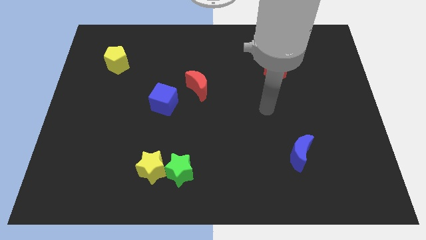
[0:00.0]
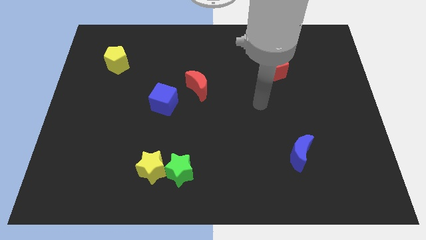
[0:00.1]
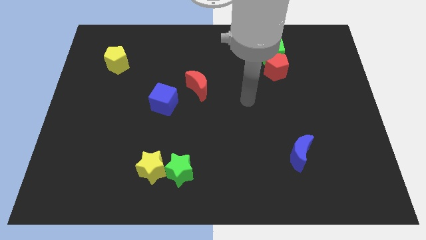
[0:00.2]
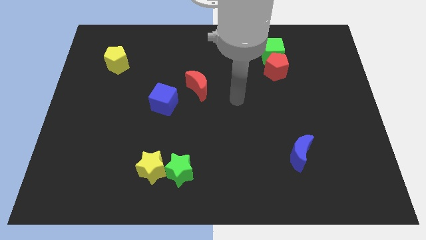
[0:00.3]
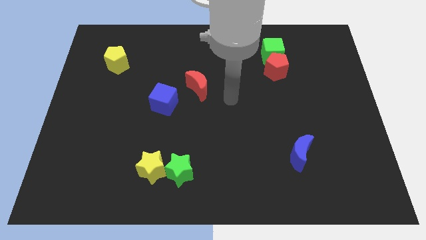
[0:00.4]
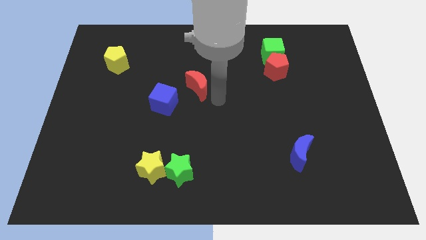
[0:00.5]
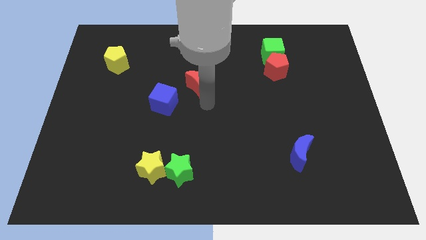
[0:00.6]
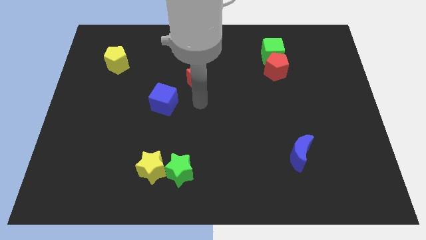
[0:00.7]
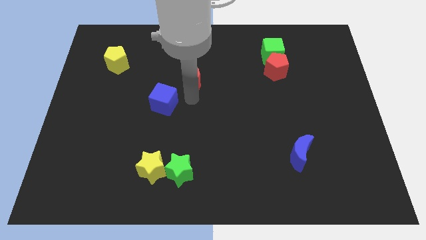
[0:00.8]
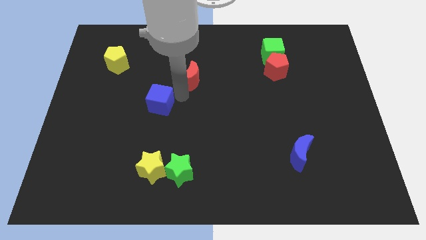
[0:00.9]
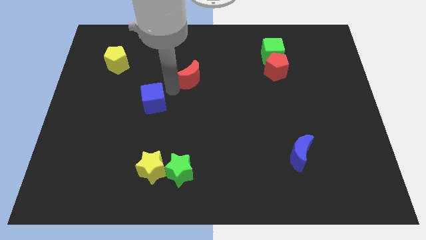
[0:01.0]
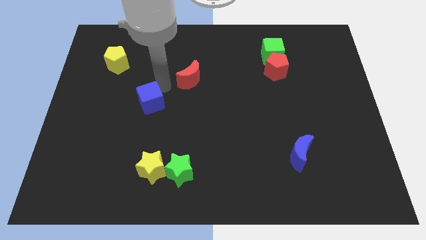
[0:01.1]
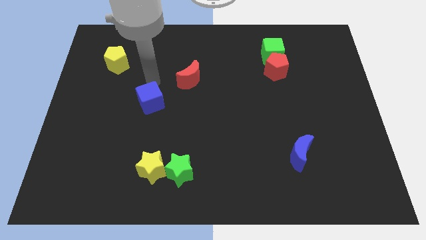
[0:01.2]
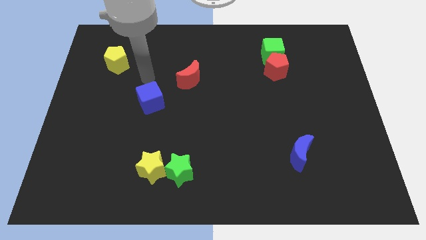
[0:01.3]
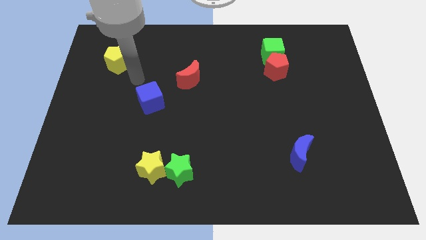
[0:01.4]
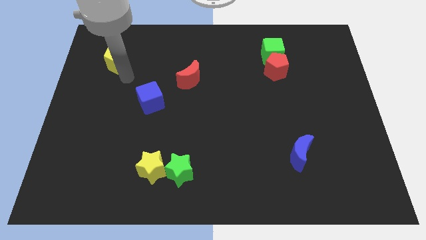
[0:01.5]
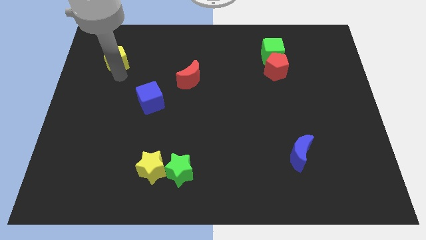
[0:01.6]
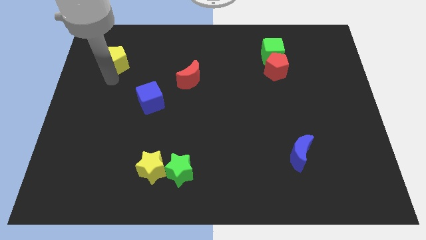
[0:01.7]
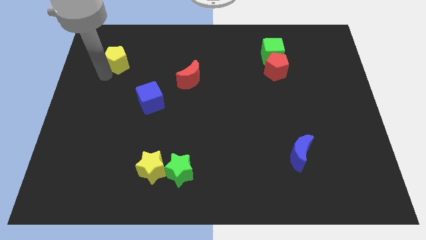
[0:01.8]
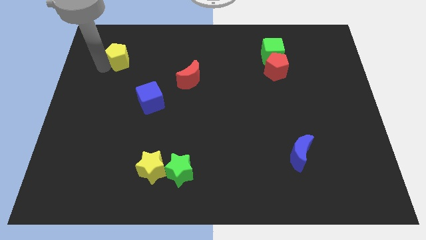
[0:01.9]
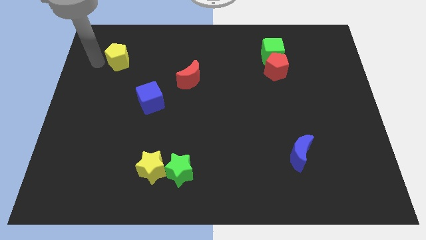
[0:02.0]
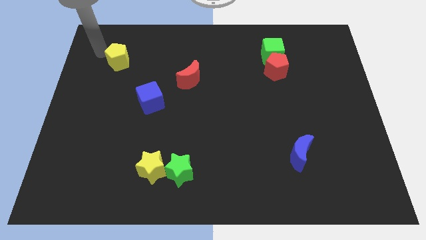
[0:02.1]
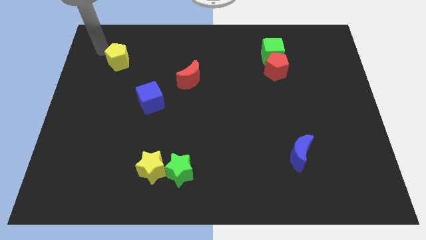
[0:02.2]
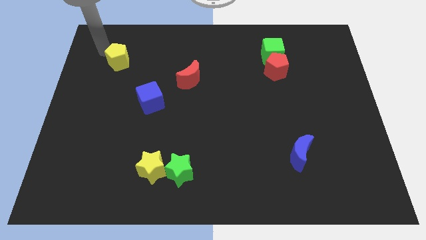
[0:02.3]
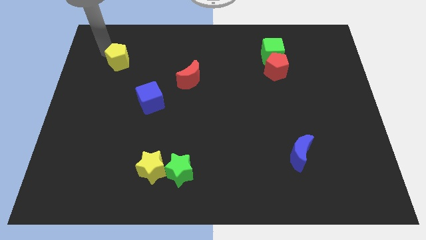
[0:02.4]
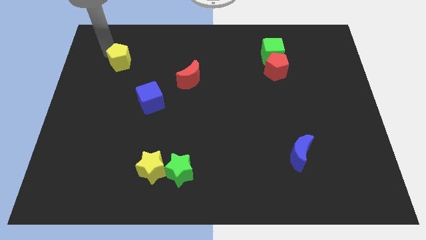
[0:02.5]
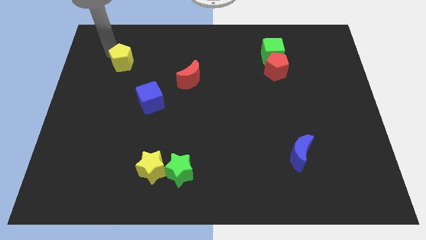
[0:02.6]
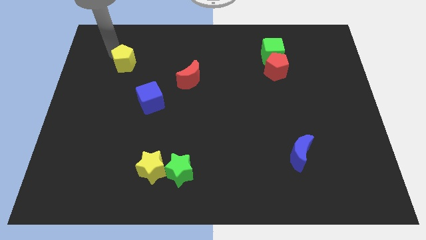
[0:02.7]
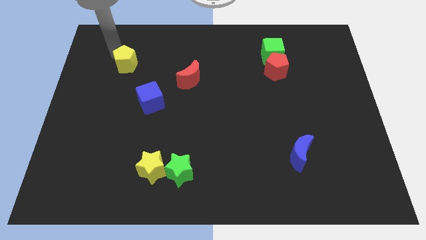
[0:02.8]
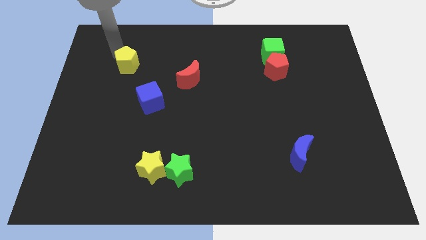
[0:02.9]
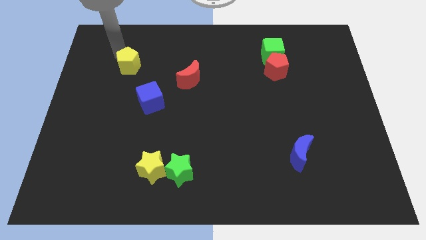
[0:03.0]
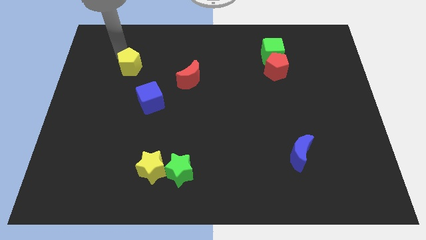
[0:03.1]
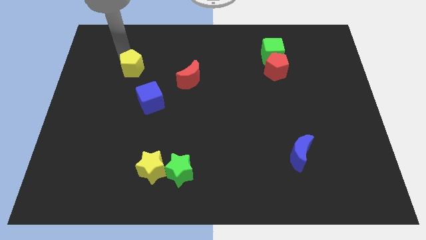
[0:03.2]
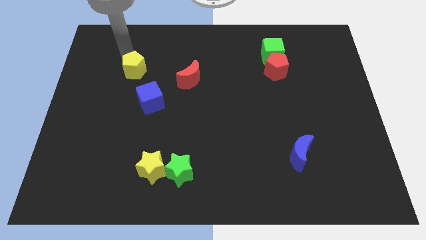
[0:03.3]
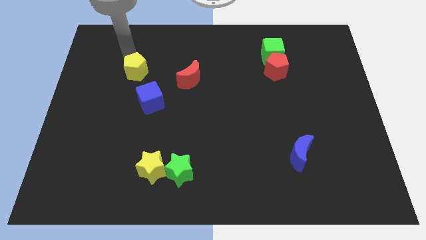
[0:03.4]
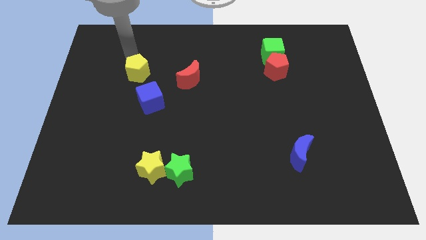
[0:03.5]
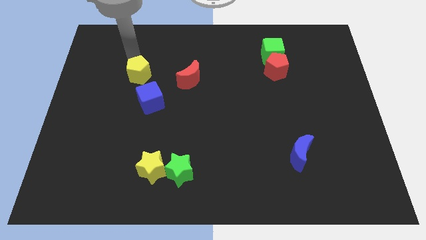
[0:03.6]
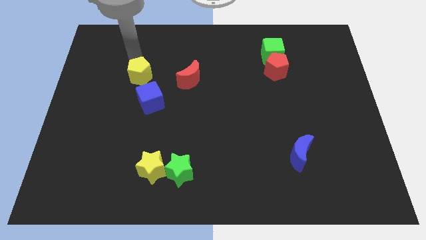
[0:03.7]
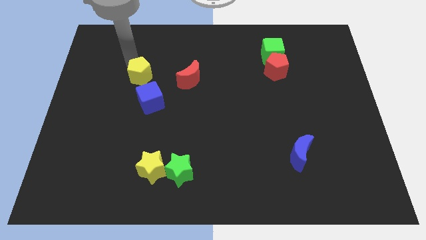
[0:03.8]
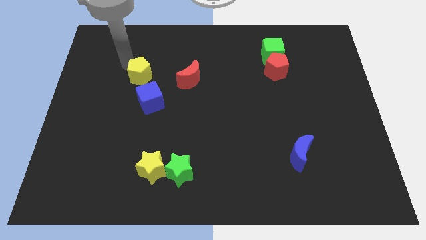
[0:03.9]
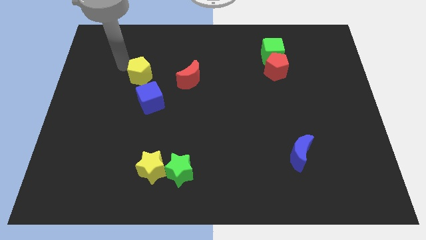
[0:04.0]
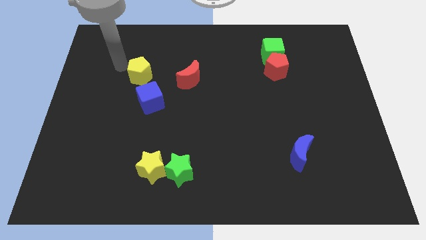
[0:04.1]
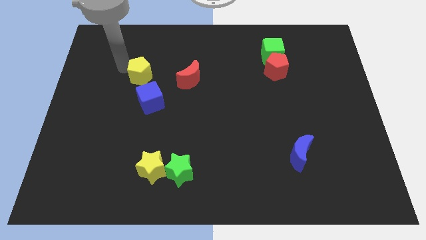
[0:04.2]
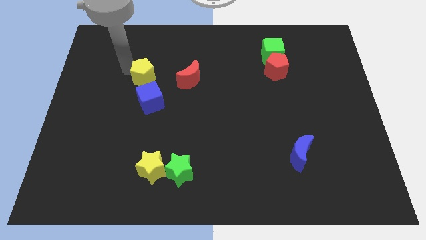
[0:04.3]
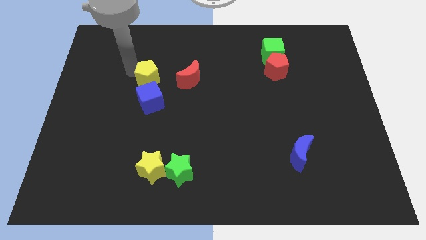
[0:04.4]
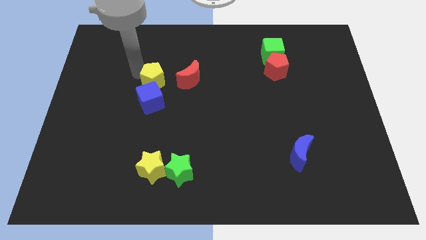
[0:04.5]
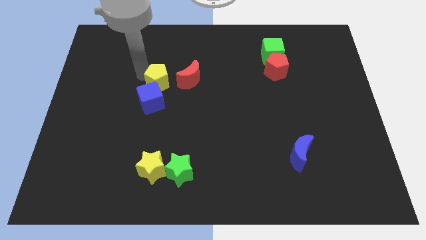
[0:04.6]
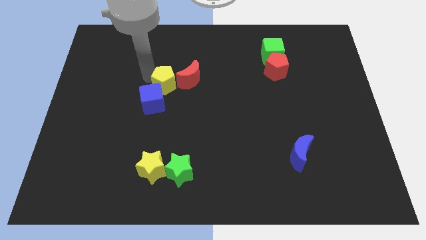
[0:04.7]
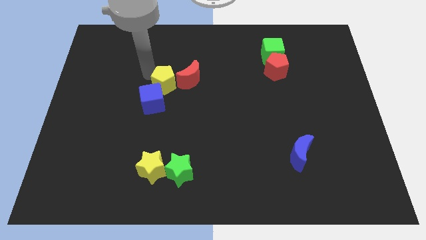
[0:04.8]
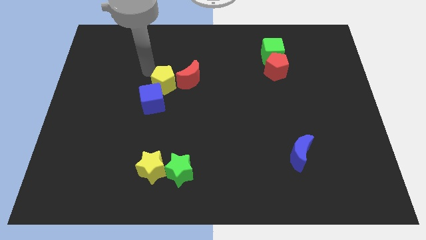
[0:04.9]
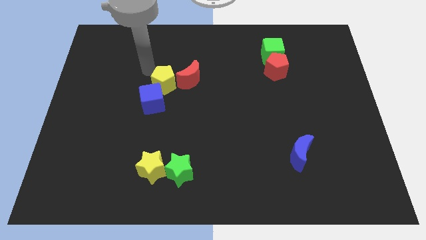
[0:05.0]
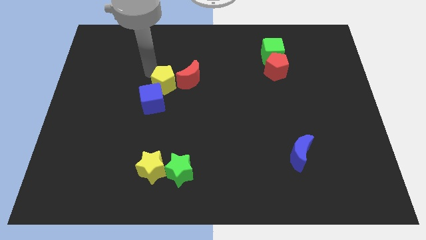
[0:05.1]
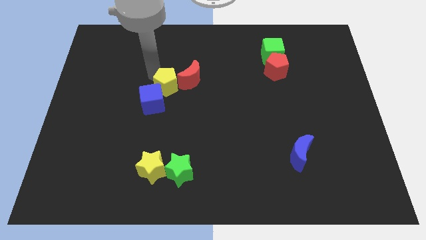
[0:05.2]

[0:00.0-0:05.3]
push the yellow pentagon to the center of the board

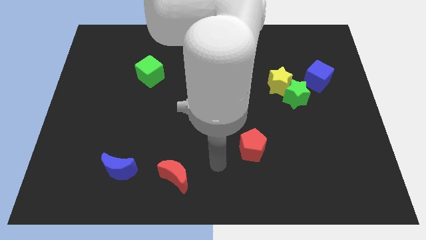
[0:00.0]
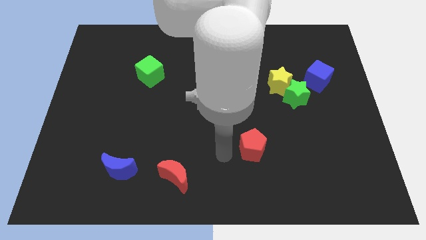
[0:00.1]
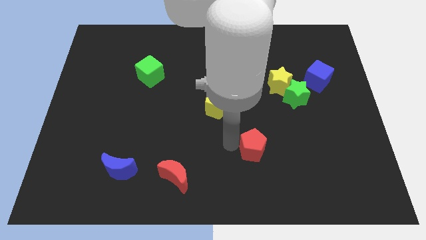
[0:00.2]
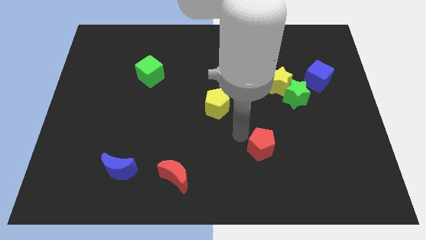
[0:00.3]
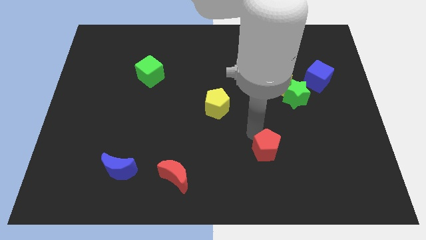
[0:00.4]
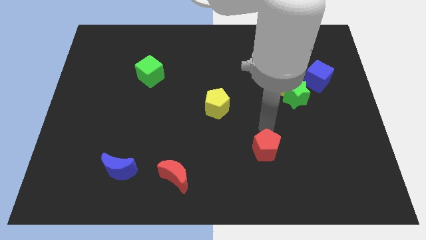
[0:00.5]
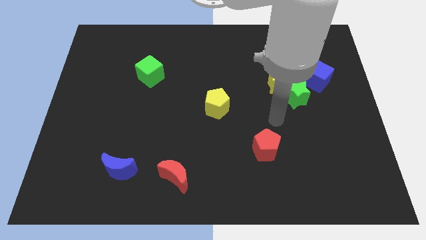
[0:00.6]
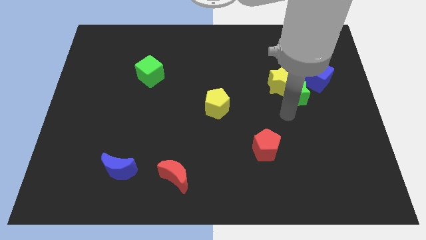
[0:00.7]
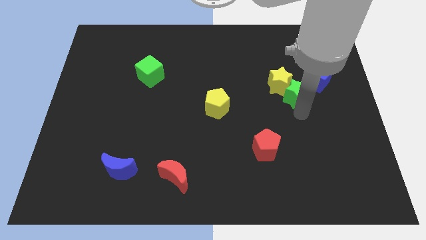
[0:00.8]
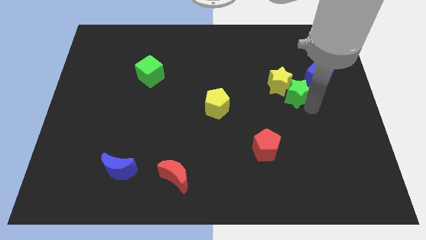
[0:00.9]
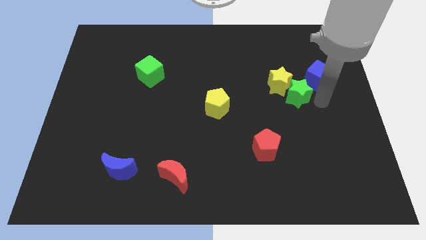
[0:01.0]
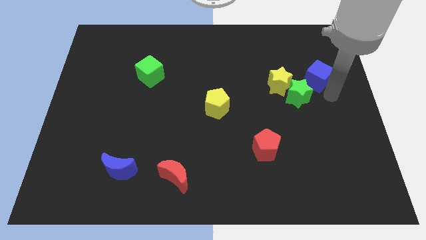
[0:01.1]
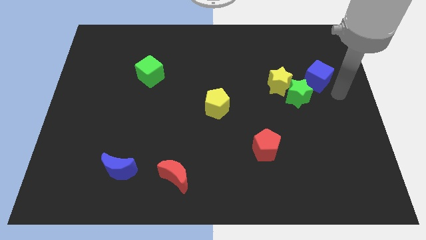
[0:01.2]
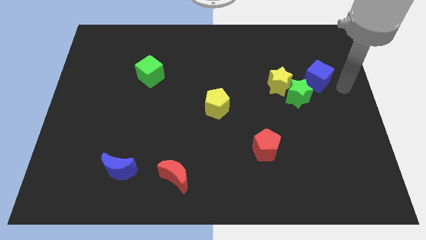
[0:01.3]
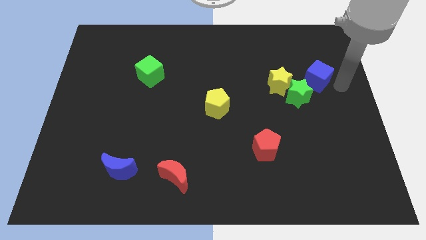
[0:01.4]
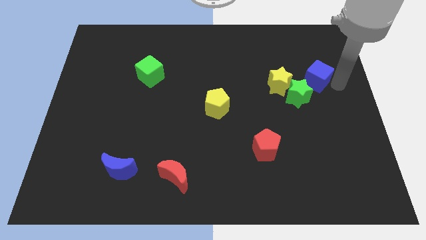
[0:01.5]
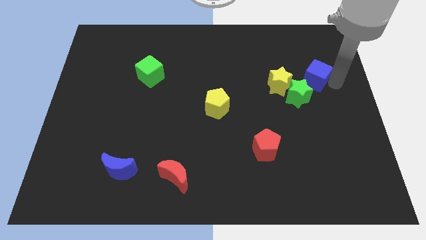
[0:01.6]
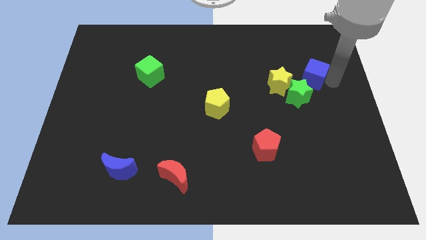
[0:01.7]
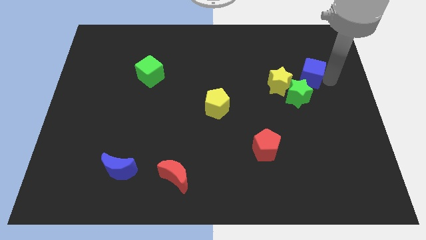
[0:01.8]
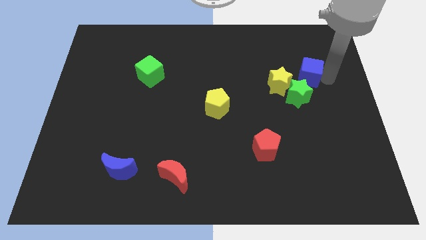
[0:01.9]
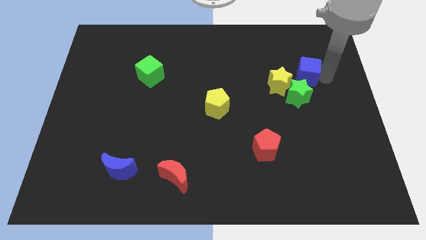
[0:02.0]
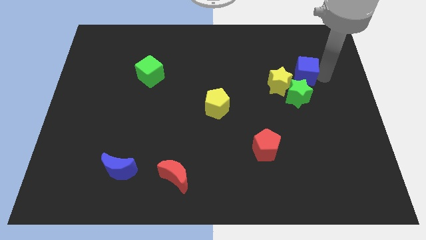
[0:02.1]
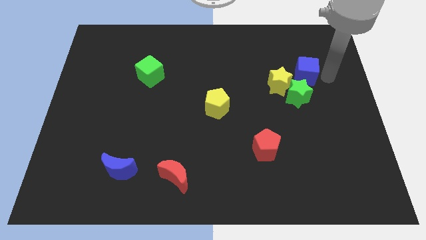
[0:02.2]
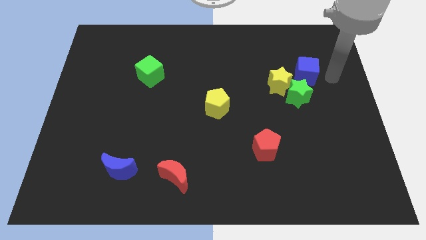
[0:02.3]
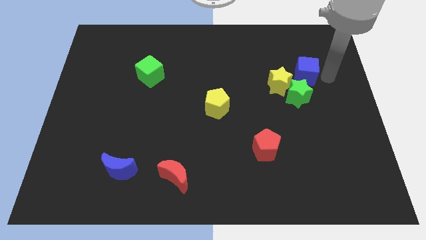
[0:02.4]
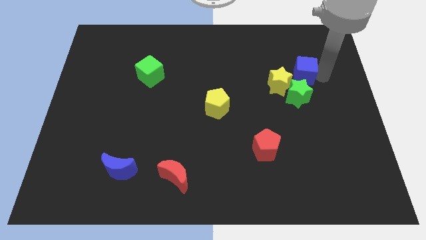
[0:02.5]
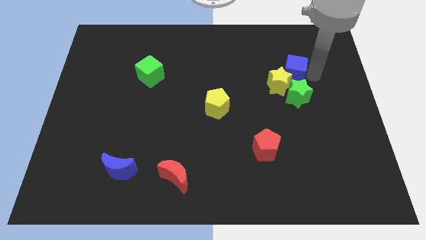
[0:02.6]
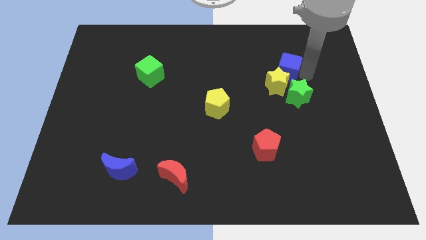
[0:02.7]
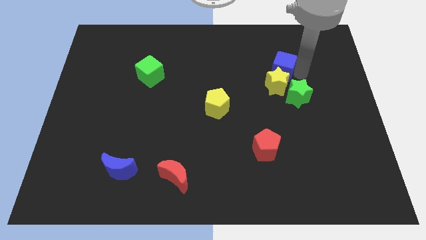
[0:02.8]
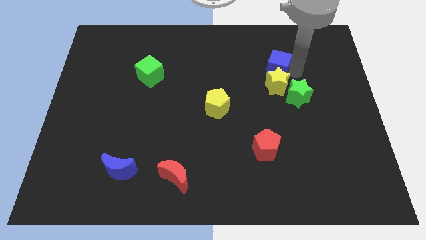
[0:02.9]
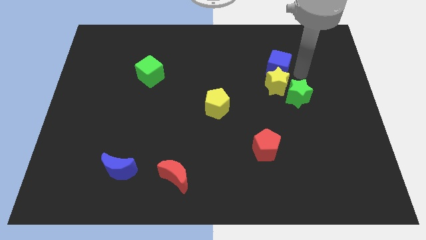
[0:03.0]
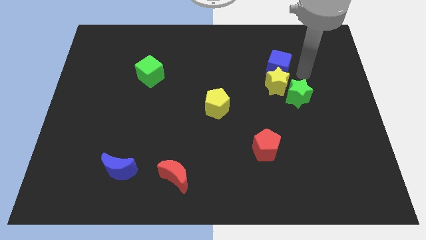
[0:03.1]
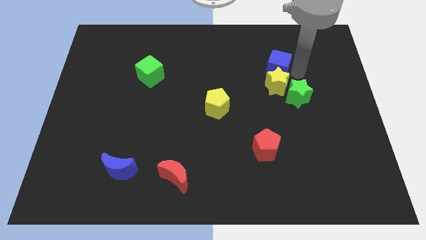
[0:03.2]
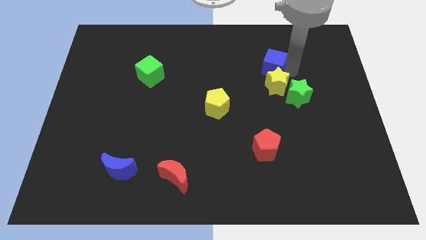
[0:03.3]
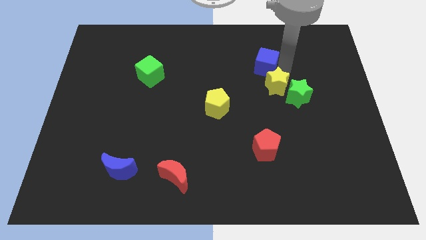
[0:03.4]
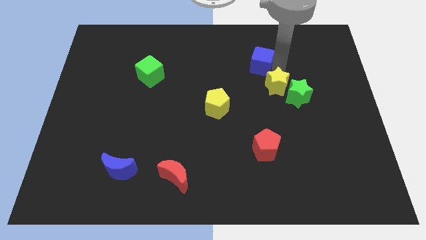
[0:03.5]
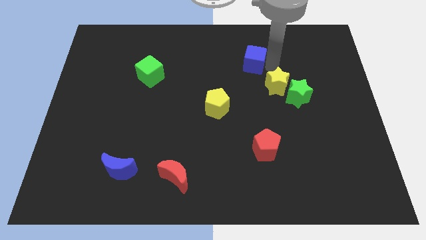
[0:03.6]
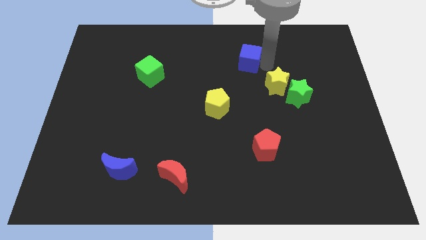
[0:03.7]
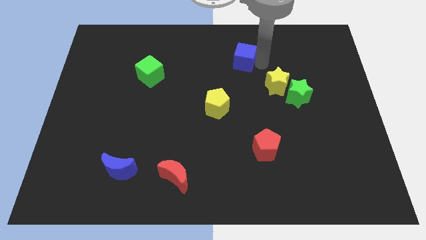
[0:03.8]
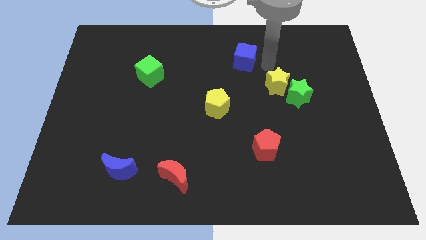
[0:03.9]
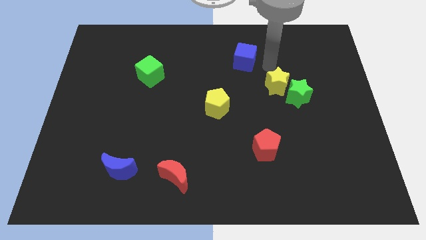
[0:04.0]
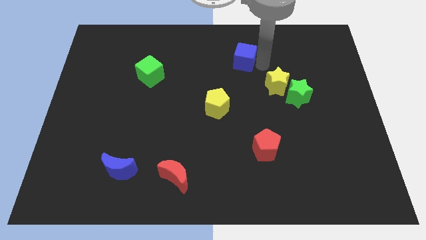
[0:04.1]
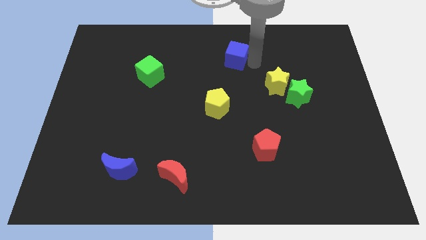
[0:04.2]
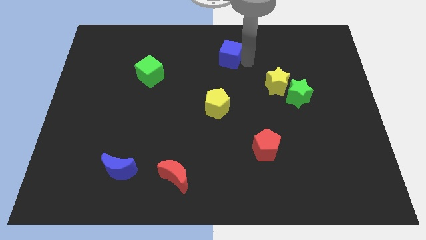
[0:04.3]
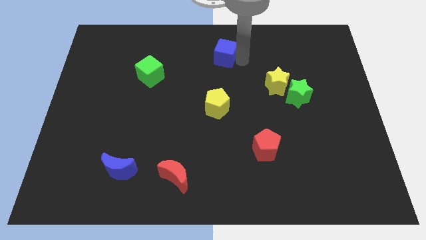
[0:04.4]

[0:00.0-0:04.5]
put the blue cube to the towards your base
